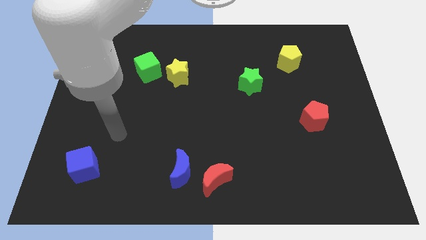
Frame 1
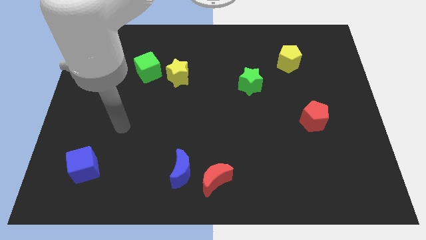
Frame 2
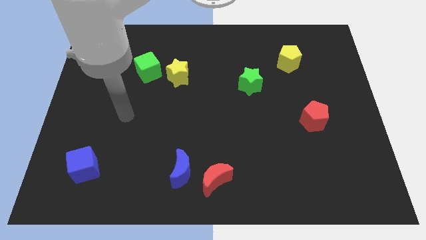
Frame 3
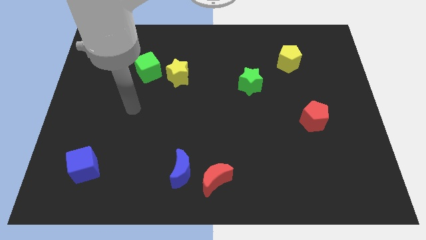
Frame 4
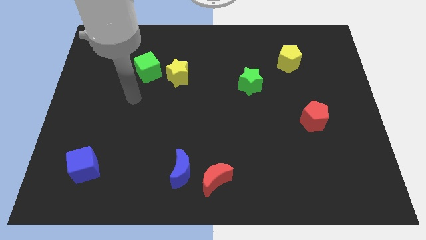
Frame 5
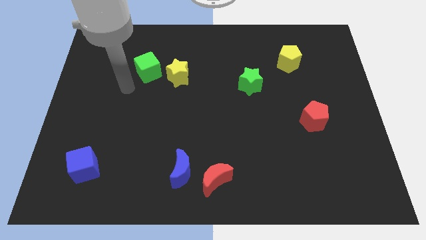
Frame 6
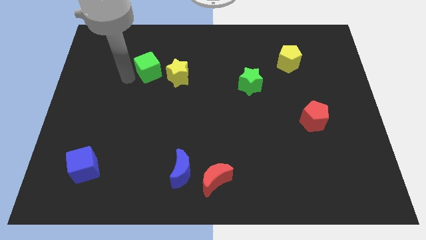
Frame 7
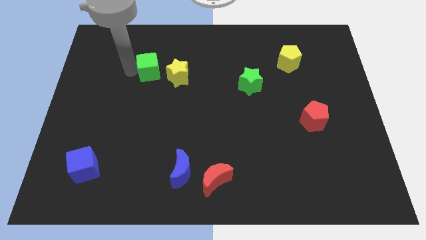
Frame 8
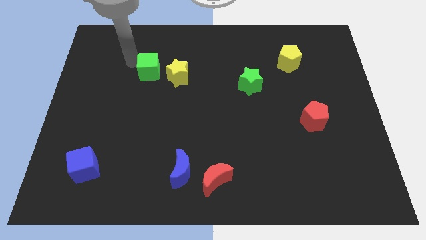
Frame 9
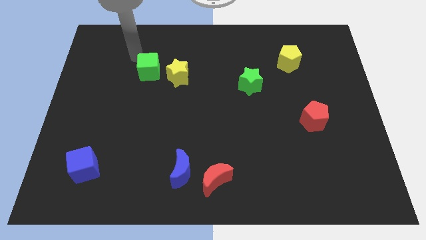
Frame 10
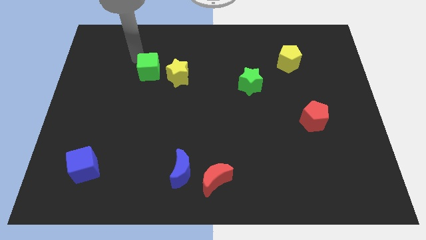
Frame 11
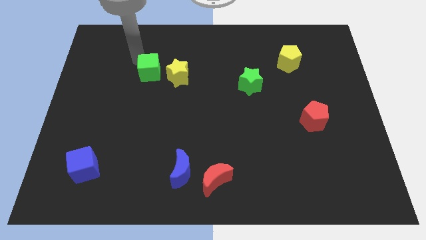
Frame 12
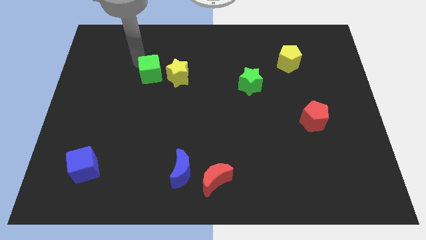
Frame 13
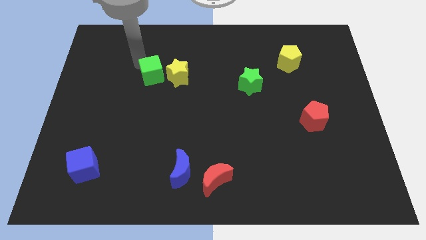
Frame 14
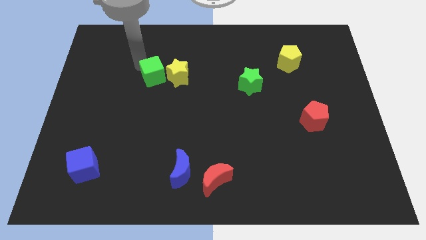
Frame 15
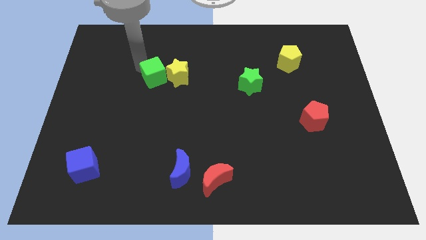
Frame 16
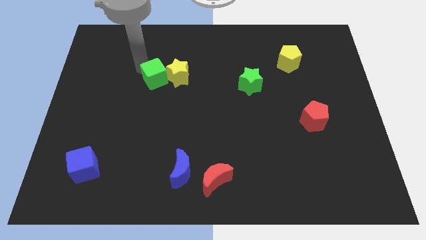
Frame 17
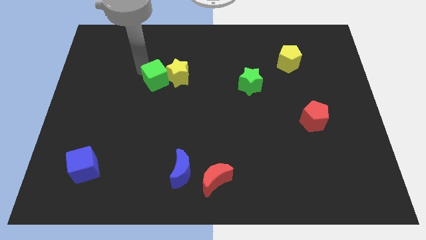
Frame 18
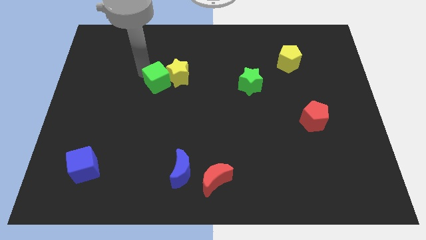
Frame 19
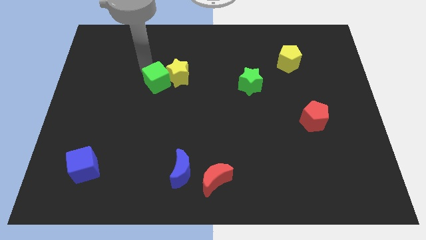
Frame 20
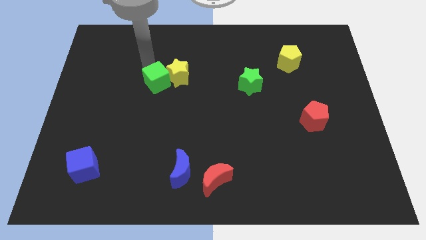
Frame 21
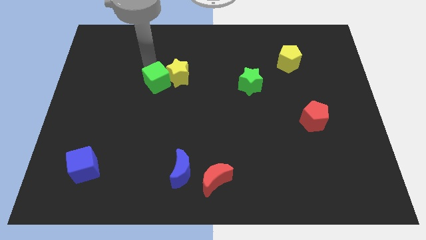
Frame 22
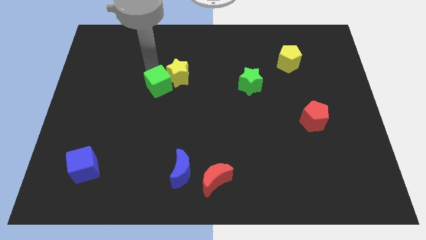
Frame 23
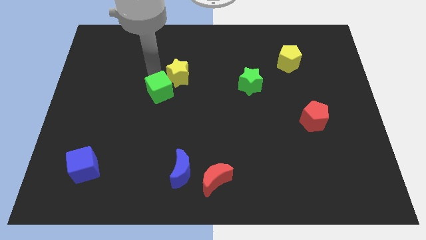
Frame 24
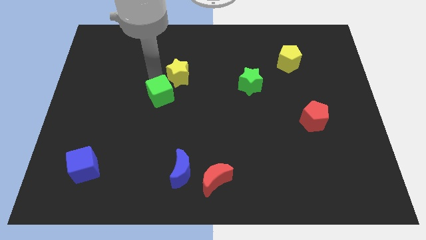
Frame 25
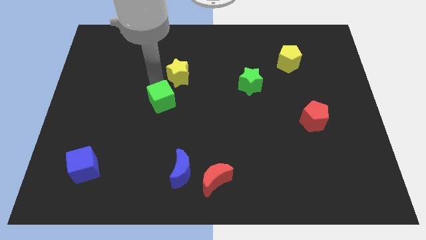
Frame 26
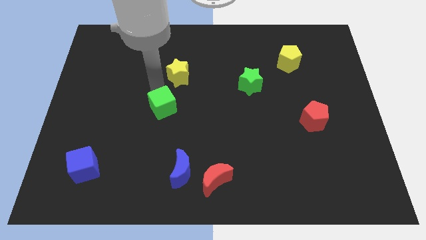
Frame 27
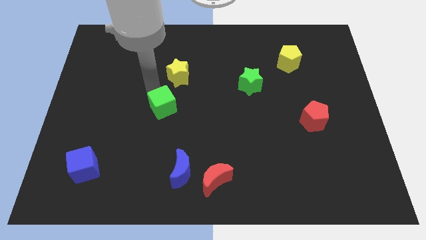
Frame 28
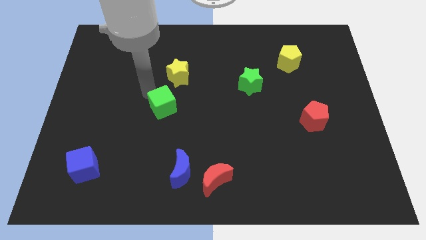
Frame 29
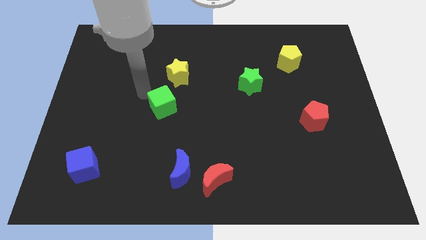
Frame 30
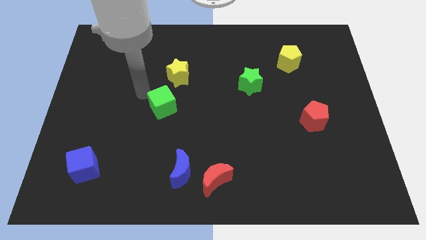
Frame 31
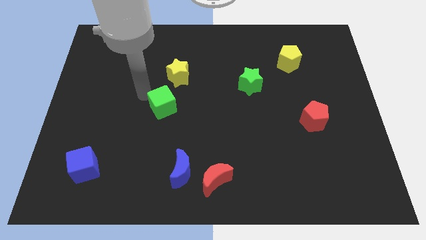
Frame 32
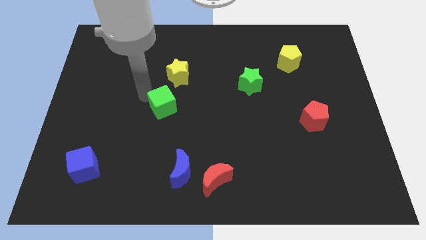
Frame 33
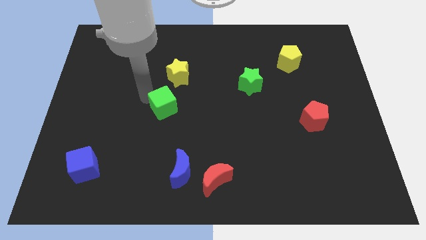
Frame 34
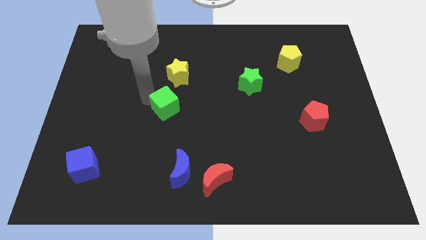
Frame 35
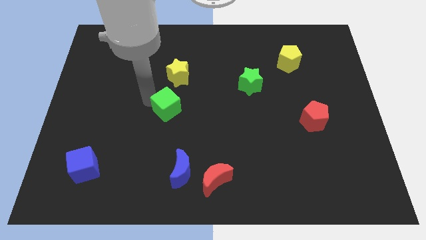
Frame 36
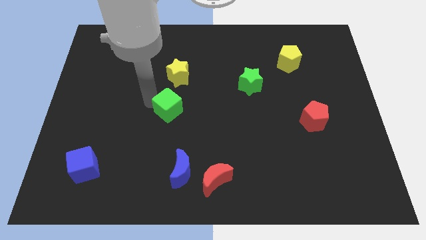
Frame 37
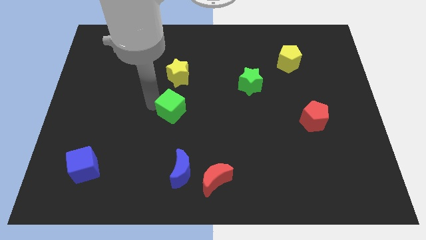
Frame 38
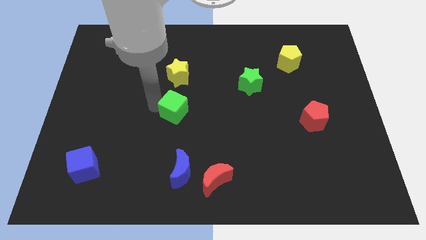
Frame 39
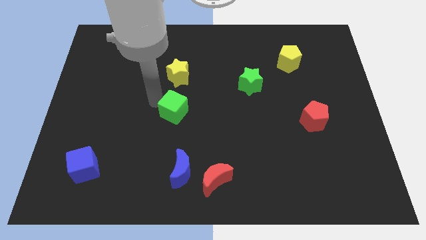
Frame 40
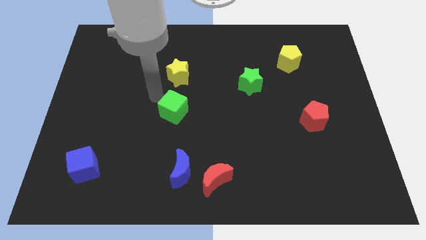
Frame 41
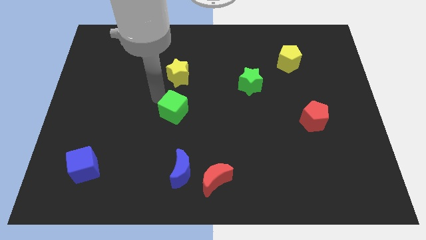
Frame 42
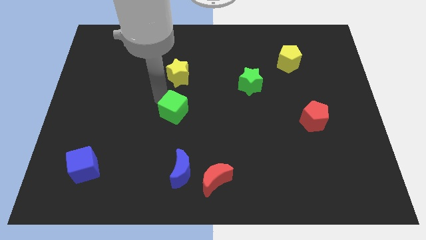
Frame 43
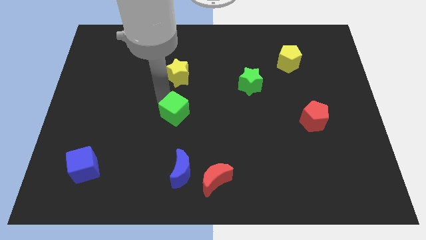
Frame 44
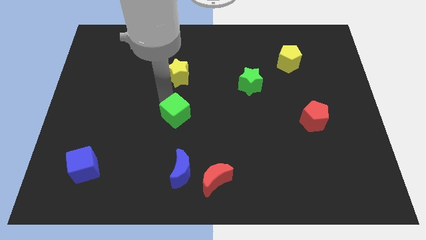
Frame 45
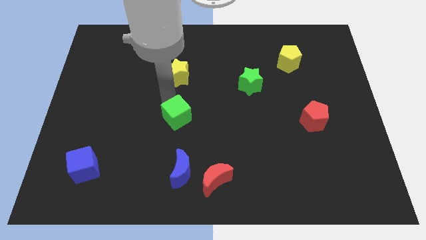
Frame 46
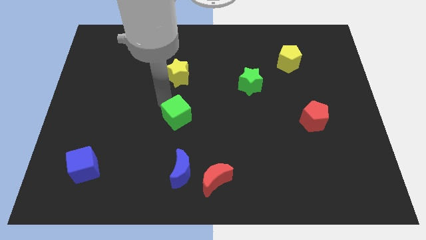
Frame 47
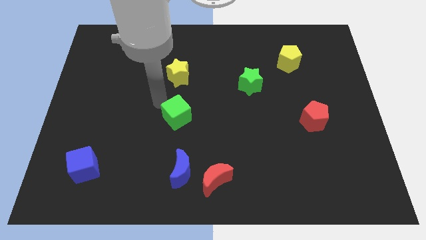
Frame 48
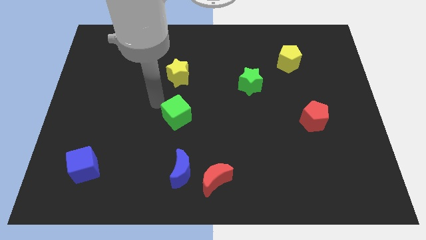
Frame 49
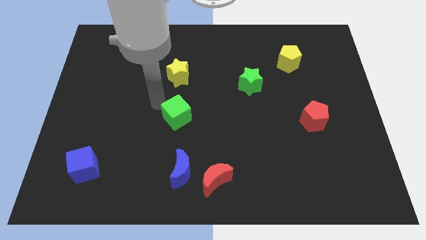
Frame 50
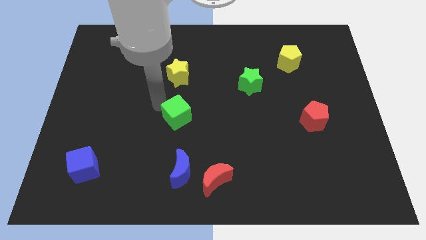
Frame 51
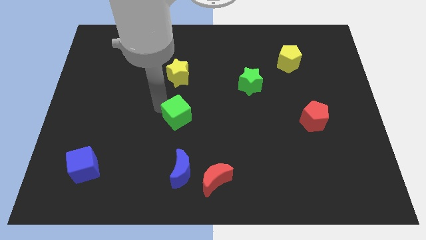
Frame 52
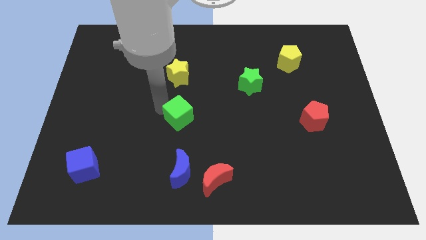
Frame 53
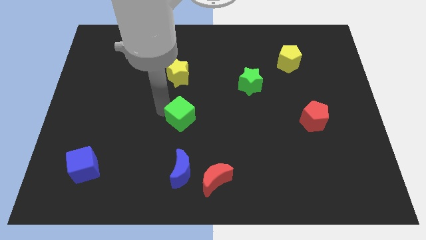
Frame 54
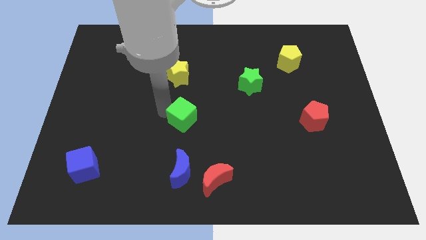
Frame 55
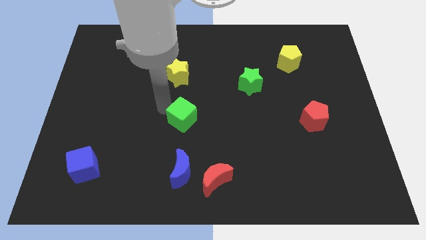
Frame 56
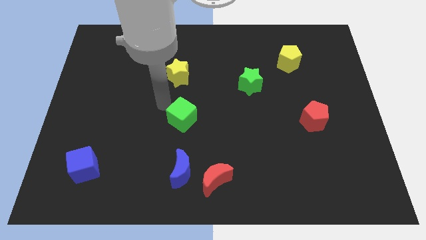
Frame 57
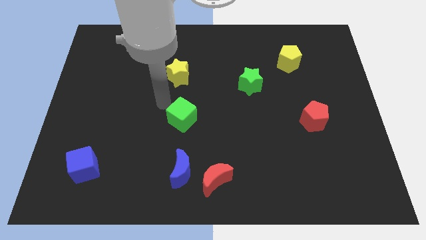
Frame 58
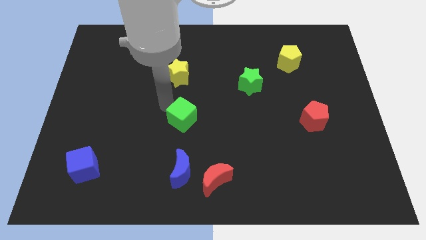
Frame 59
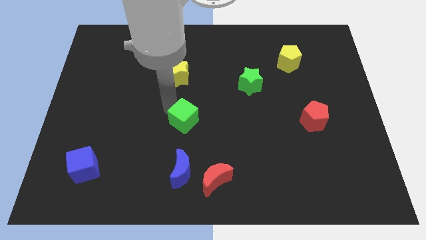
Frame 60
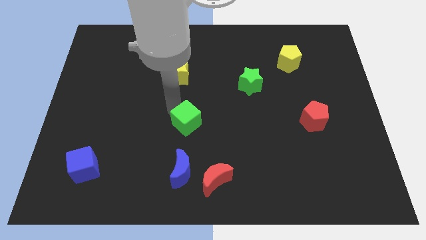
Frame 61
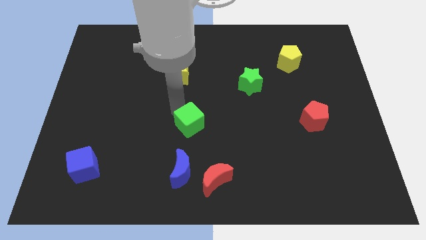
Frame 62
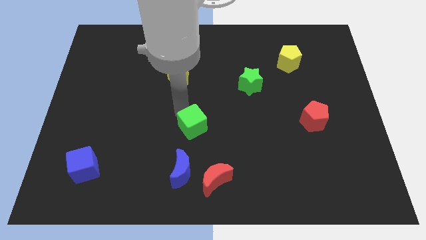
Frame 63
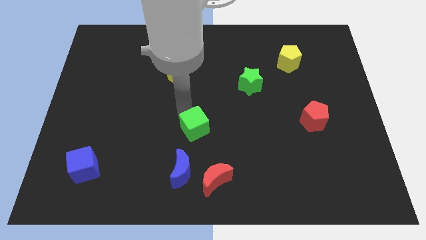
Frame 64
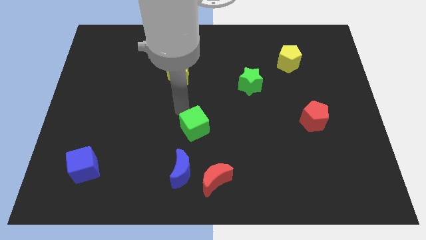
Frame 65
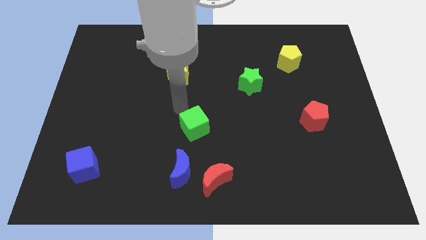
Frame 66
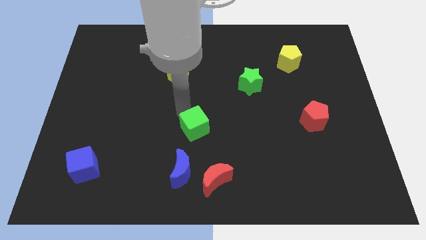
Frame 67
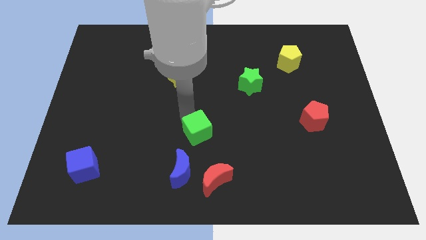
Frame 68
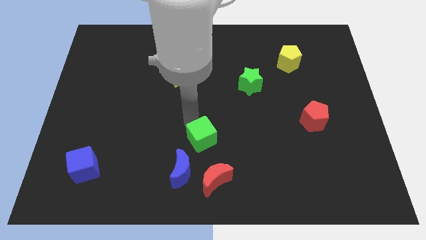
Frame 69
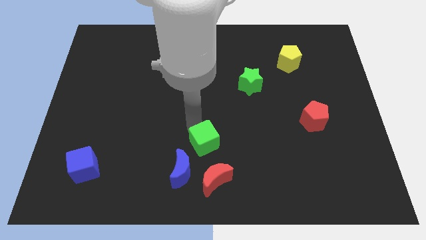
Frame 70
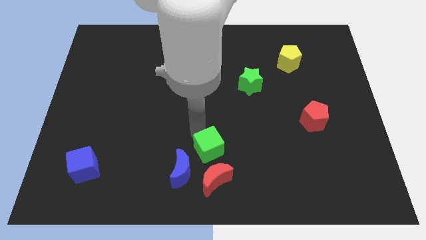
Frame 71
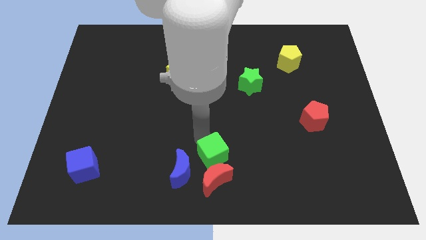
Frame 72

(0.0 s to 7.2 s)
move the green cube to the bottom side
